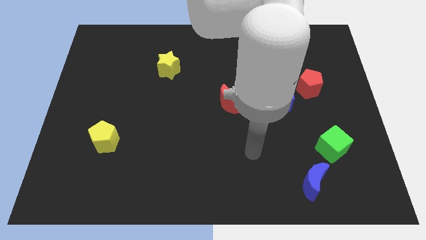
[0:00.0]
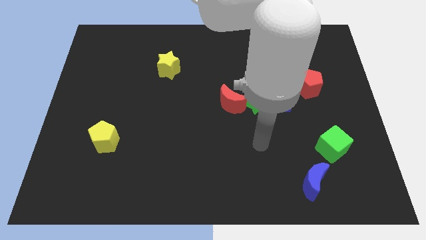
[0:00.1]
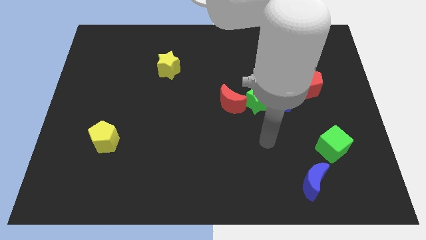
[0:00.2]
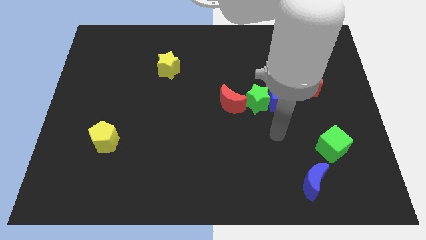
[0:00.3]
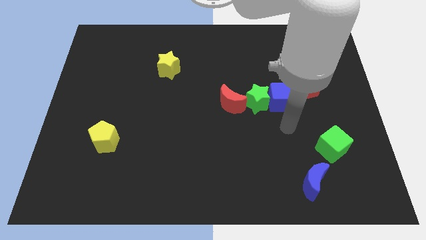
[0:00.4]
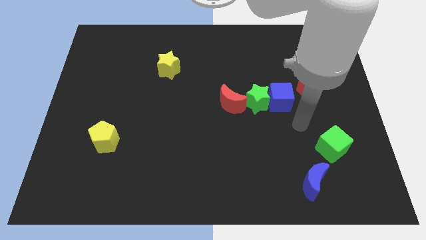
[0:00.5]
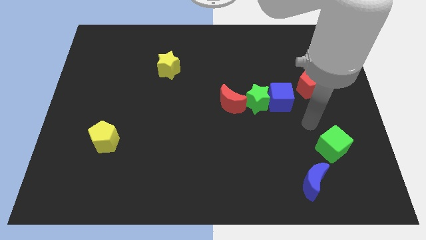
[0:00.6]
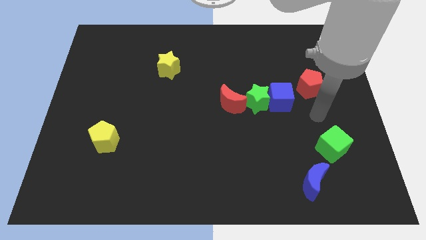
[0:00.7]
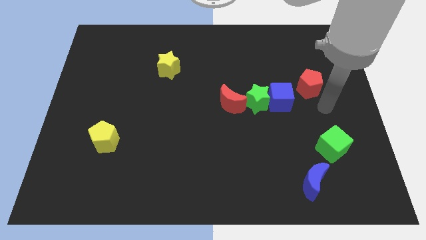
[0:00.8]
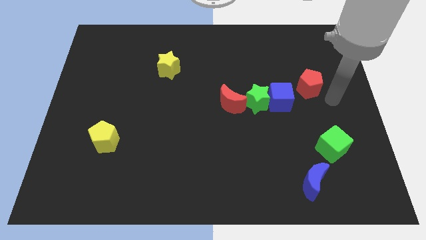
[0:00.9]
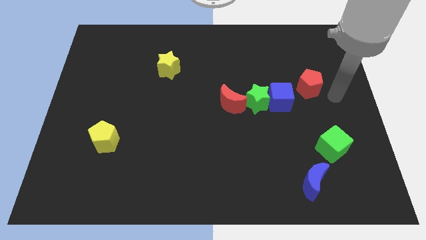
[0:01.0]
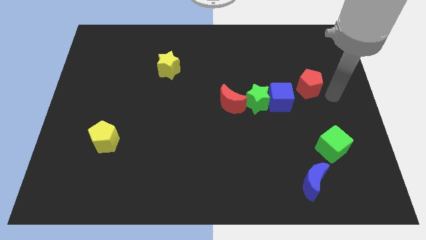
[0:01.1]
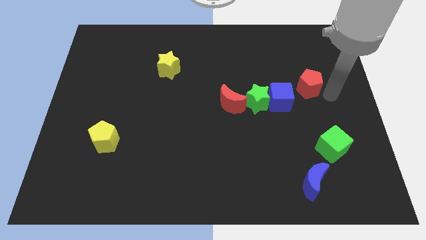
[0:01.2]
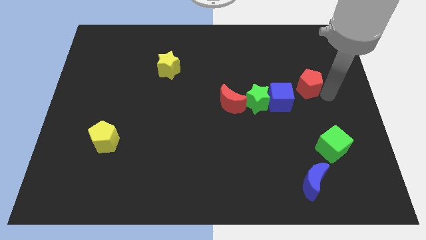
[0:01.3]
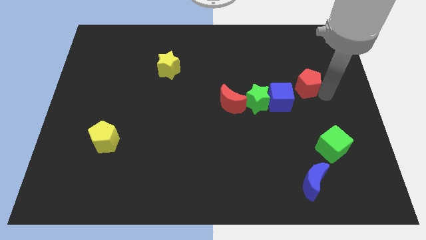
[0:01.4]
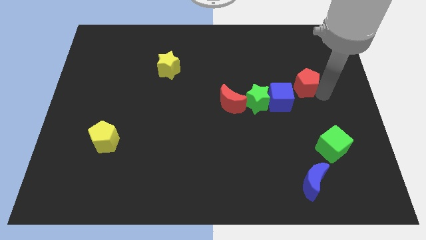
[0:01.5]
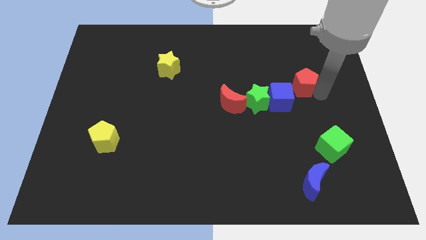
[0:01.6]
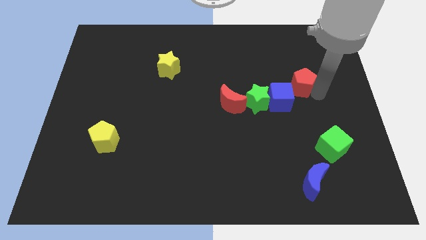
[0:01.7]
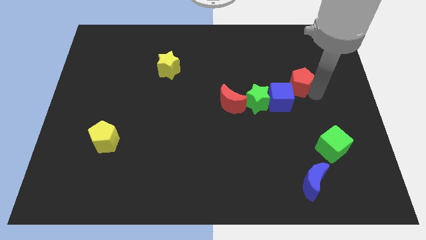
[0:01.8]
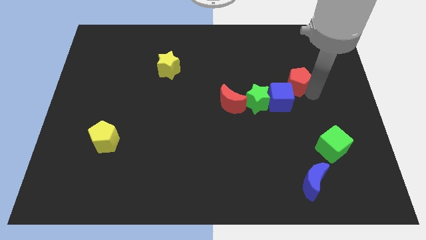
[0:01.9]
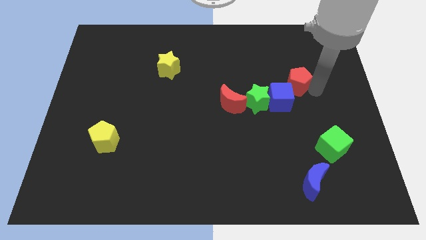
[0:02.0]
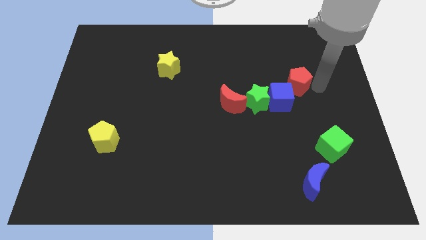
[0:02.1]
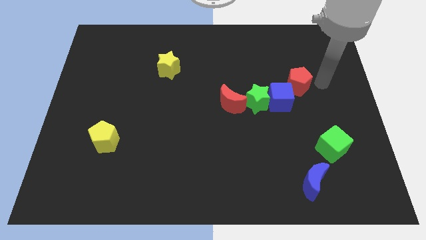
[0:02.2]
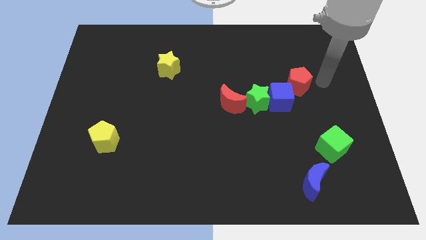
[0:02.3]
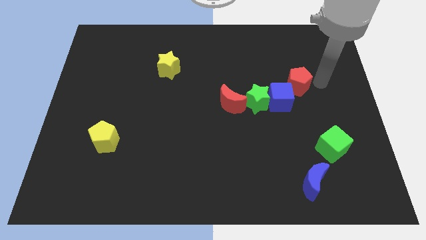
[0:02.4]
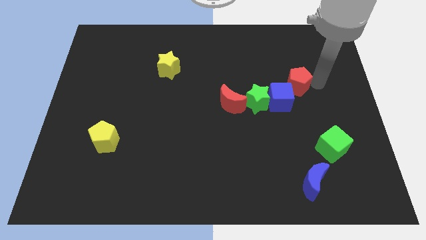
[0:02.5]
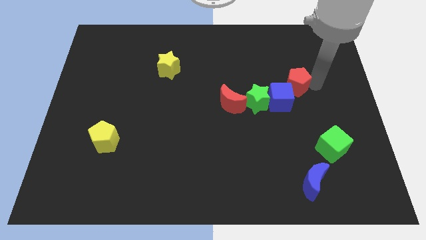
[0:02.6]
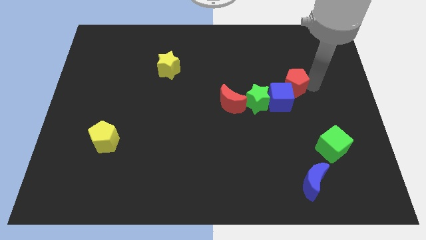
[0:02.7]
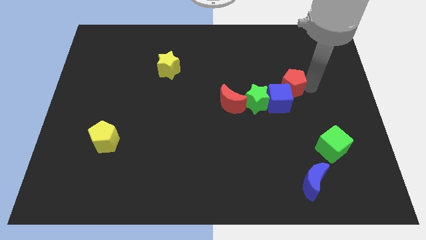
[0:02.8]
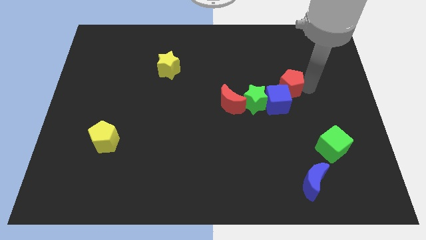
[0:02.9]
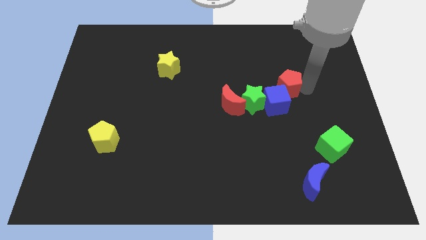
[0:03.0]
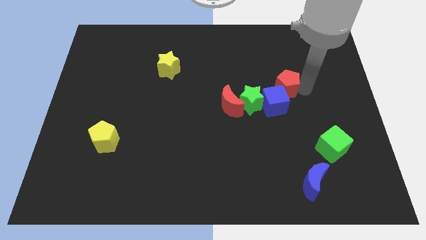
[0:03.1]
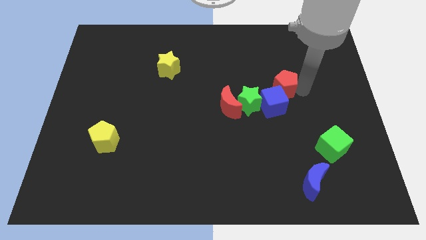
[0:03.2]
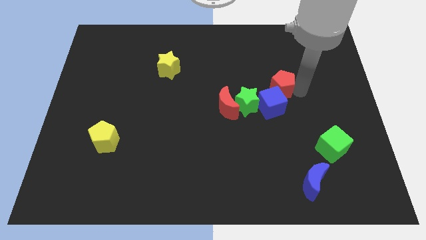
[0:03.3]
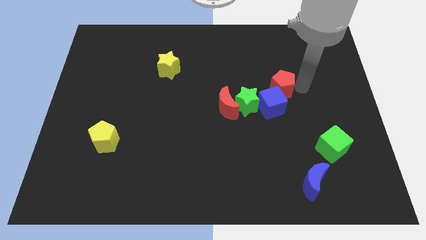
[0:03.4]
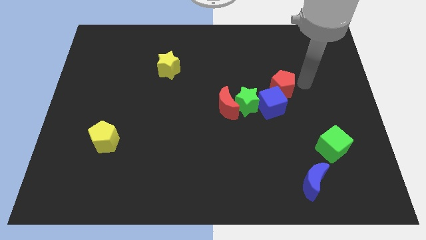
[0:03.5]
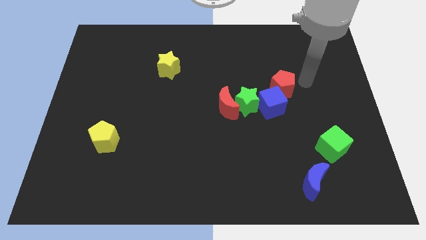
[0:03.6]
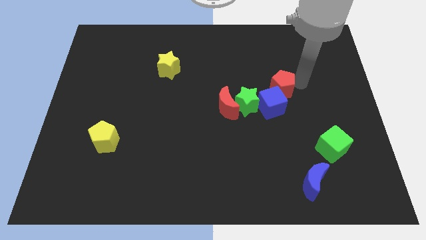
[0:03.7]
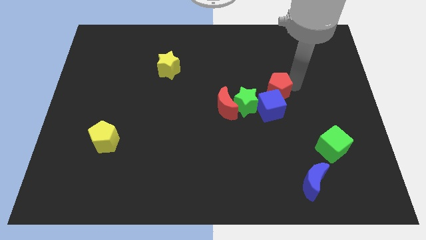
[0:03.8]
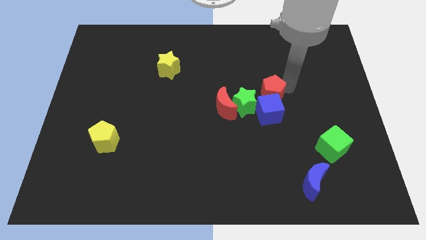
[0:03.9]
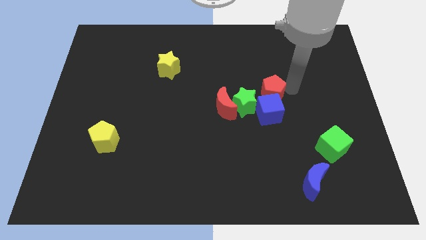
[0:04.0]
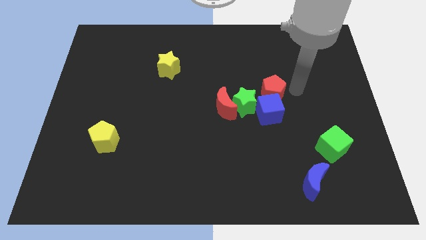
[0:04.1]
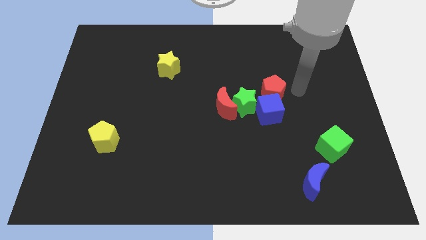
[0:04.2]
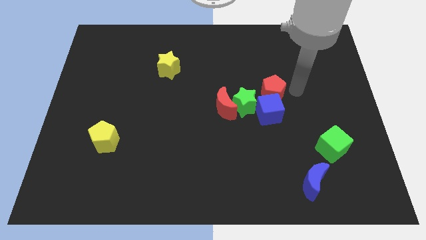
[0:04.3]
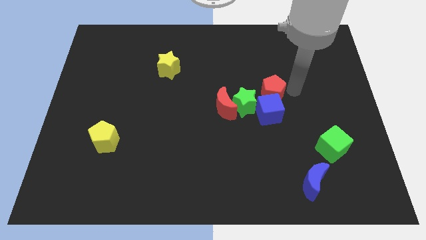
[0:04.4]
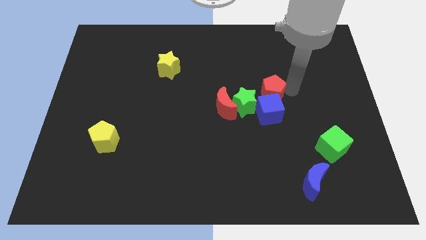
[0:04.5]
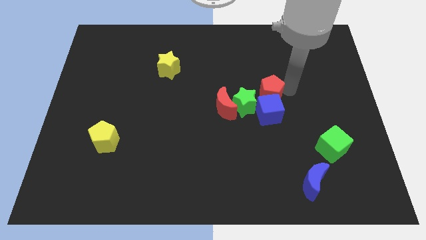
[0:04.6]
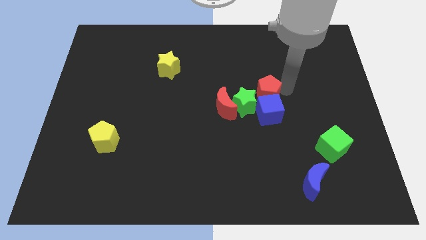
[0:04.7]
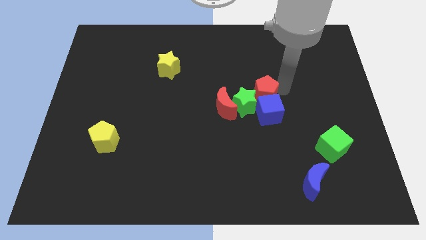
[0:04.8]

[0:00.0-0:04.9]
slide the red pentagon to the green star

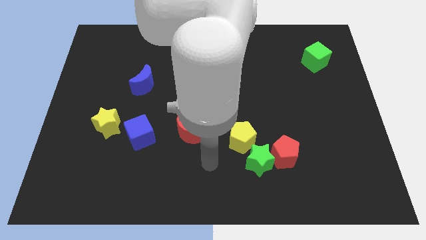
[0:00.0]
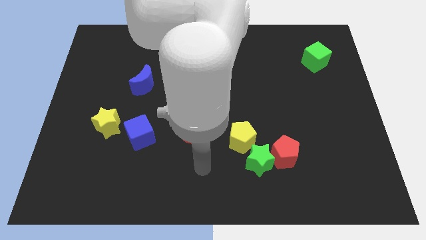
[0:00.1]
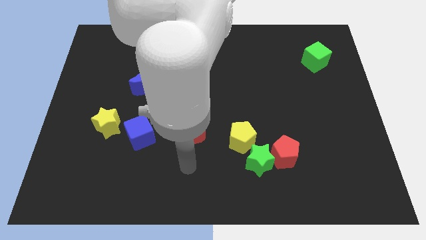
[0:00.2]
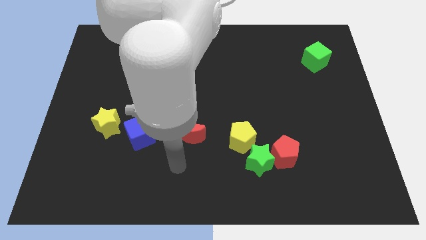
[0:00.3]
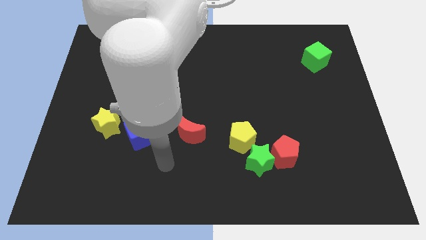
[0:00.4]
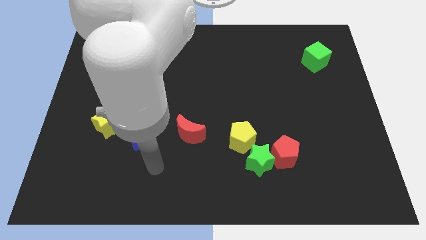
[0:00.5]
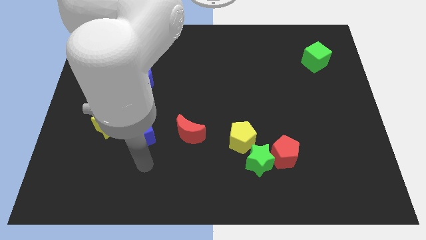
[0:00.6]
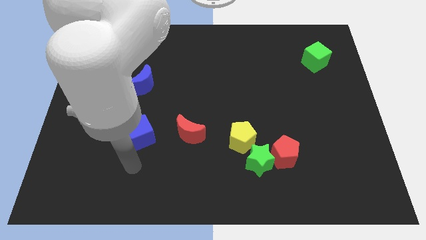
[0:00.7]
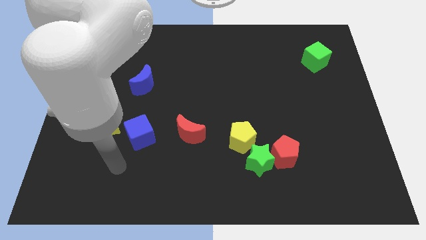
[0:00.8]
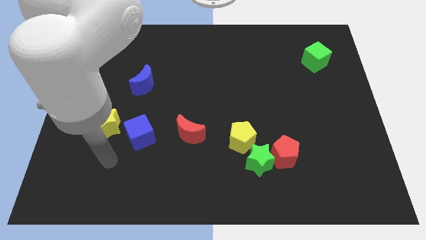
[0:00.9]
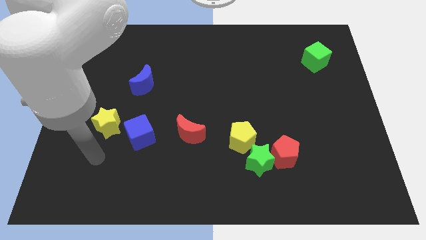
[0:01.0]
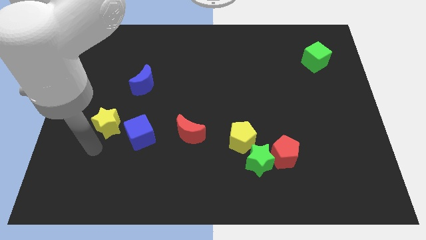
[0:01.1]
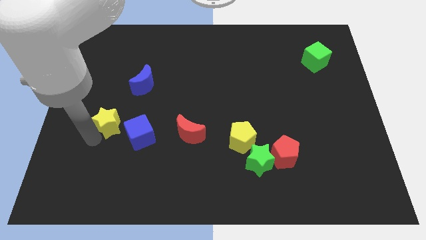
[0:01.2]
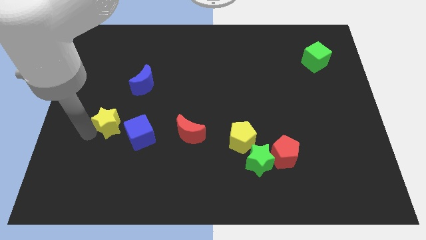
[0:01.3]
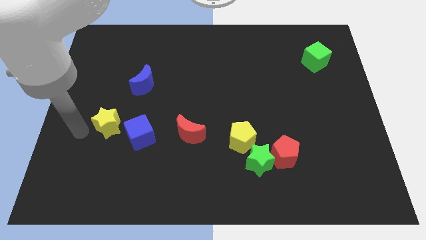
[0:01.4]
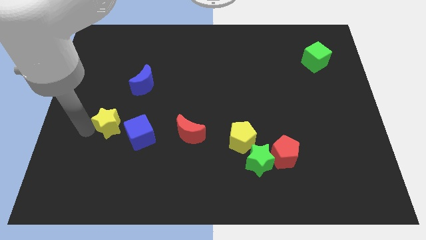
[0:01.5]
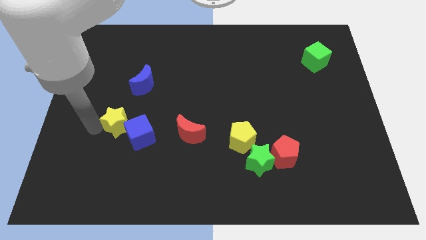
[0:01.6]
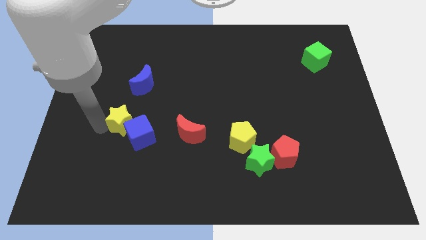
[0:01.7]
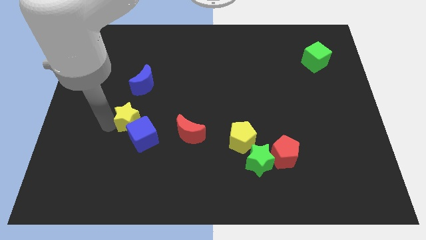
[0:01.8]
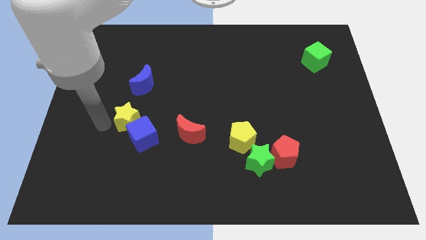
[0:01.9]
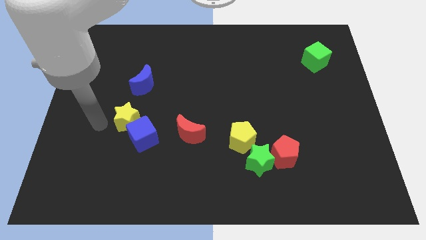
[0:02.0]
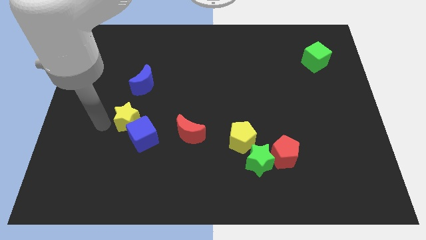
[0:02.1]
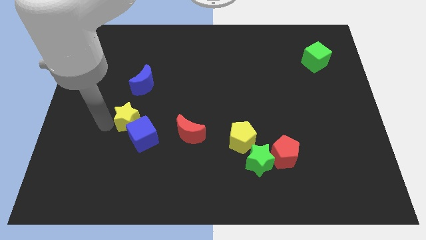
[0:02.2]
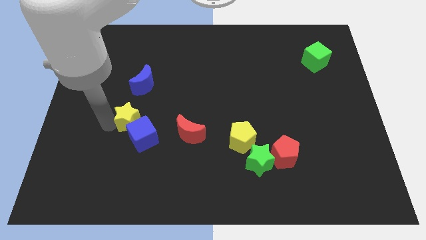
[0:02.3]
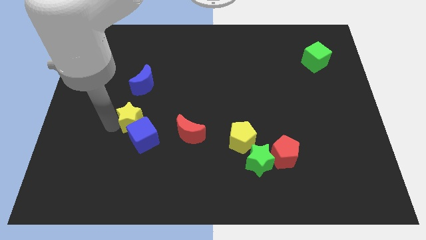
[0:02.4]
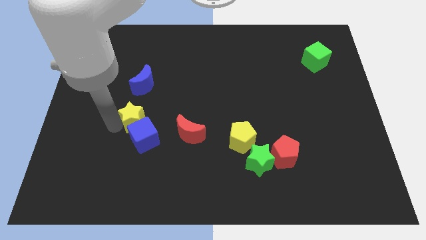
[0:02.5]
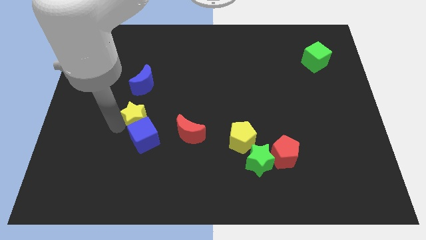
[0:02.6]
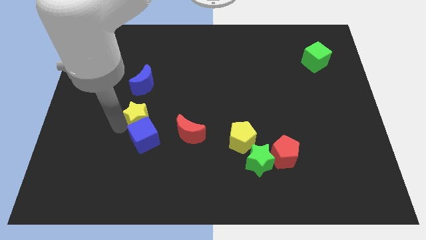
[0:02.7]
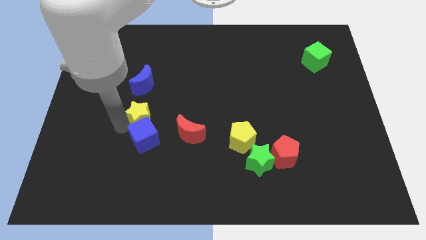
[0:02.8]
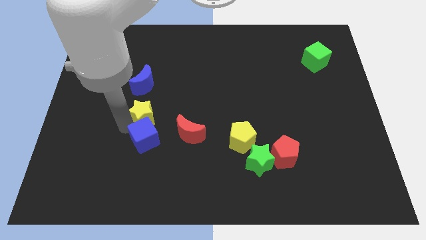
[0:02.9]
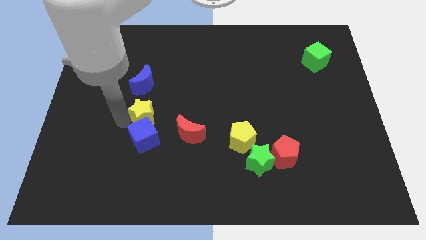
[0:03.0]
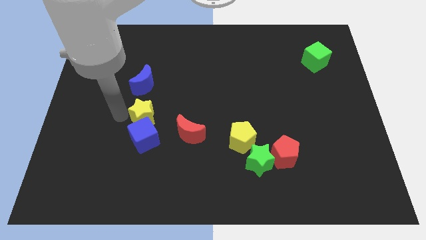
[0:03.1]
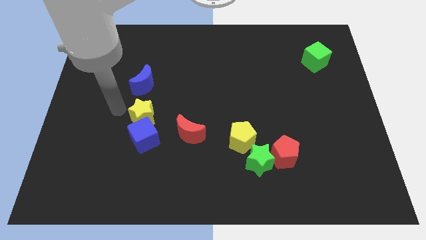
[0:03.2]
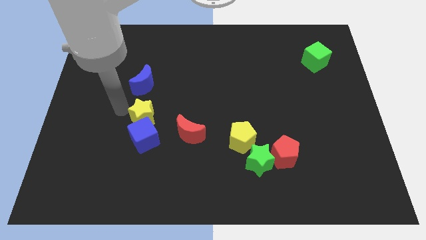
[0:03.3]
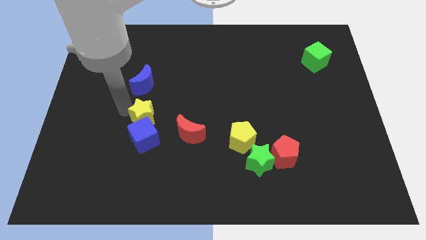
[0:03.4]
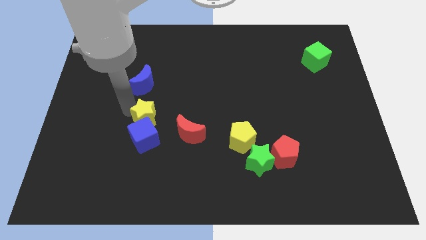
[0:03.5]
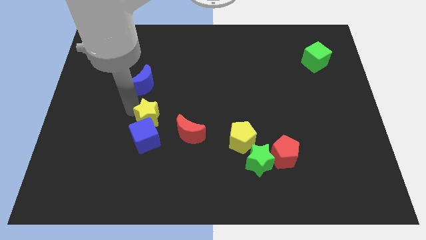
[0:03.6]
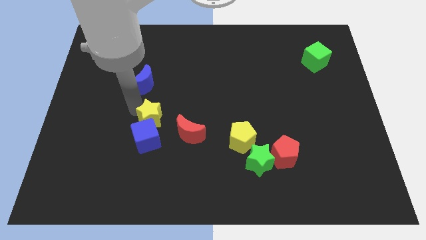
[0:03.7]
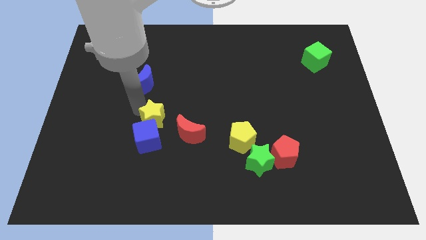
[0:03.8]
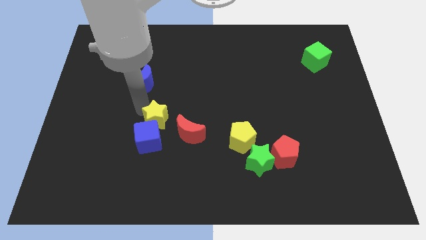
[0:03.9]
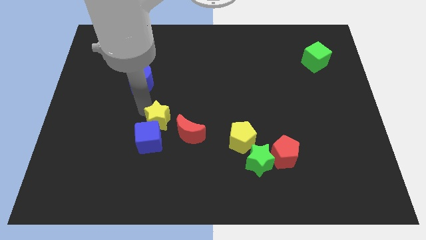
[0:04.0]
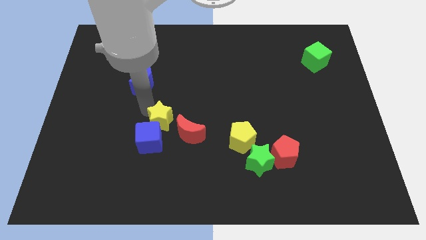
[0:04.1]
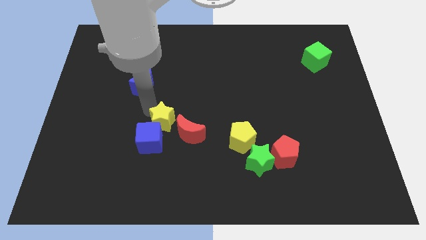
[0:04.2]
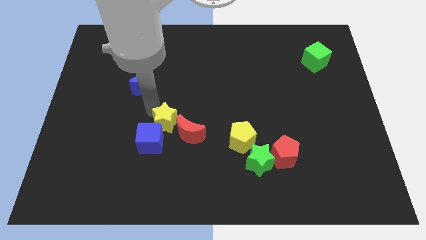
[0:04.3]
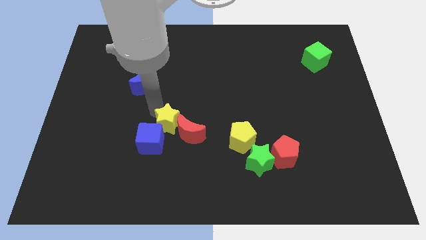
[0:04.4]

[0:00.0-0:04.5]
push the yellow star to the red moon
